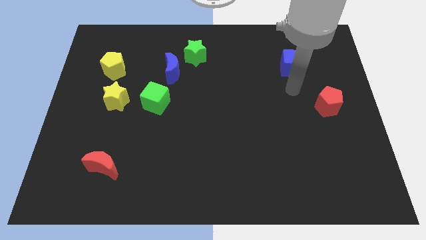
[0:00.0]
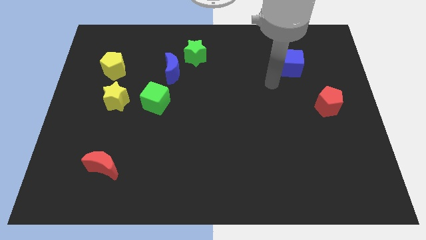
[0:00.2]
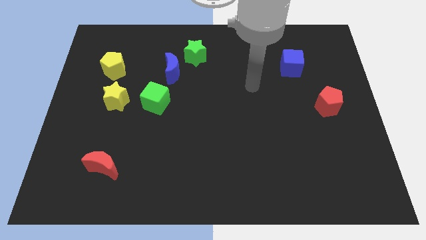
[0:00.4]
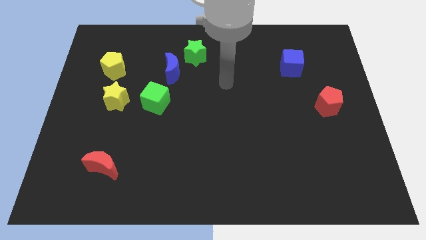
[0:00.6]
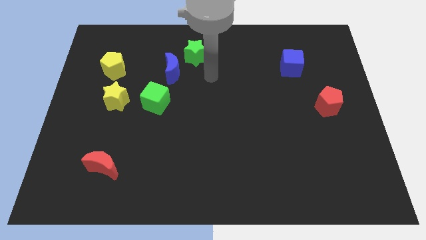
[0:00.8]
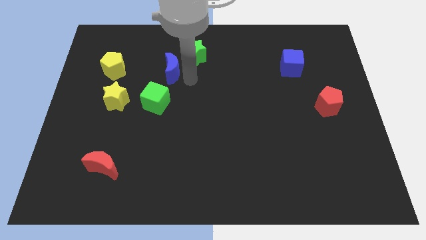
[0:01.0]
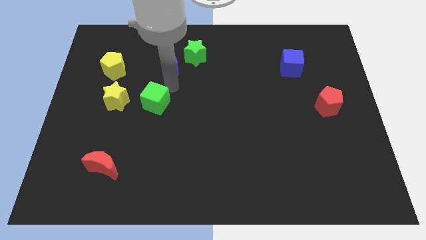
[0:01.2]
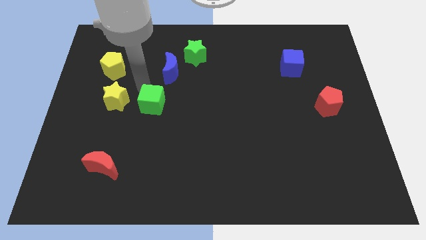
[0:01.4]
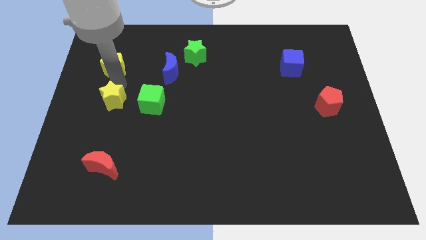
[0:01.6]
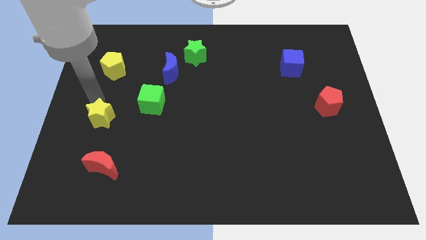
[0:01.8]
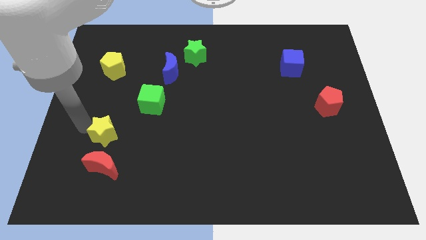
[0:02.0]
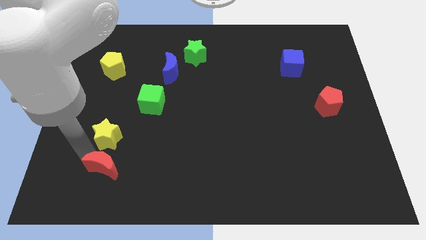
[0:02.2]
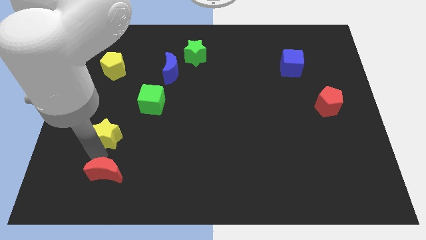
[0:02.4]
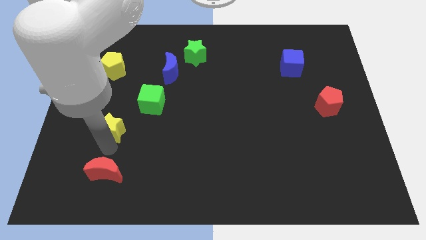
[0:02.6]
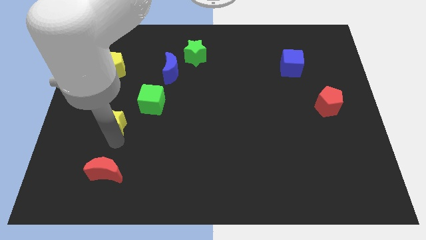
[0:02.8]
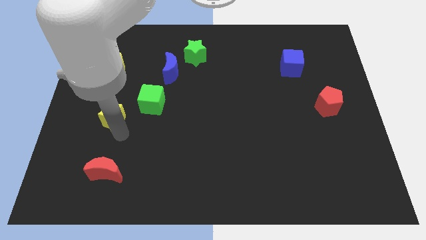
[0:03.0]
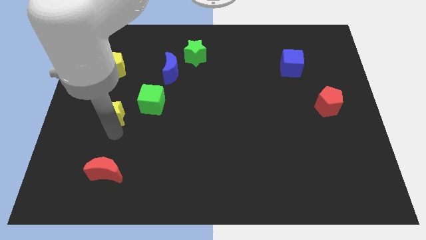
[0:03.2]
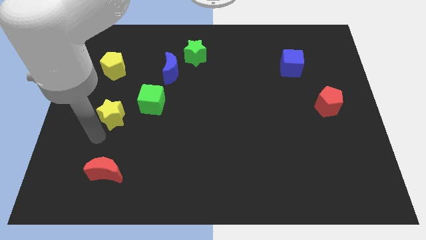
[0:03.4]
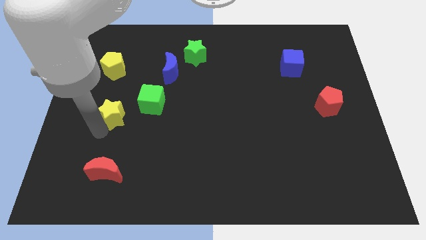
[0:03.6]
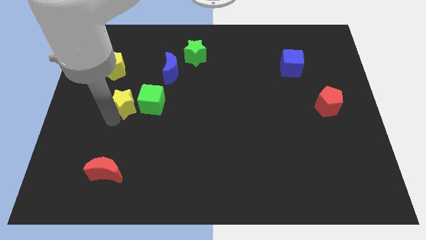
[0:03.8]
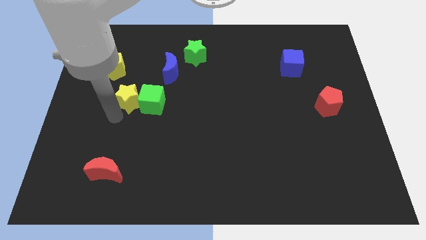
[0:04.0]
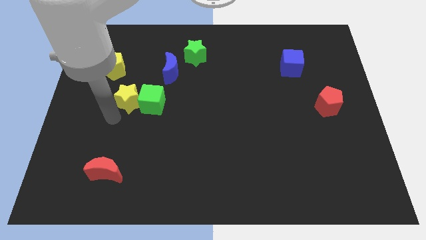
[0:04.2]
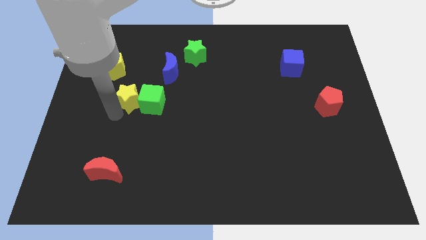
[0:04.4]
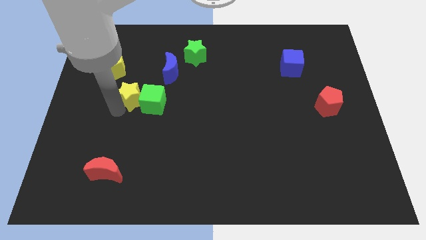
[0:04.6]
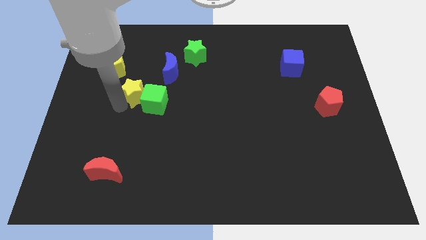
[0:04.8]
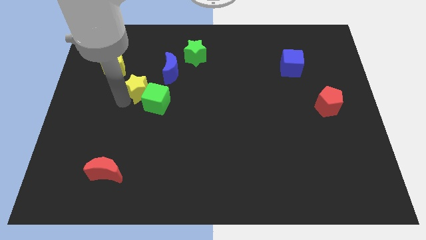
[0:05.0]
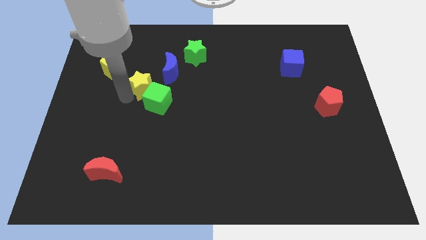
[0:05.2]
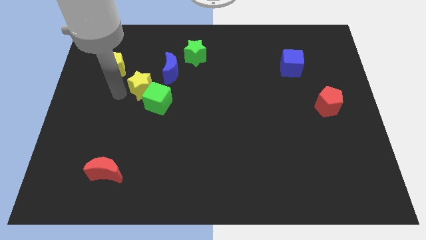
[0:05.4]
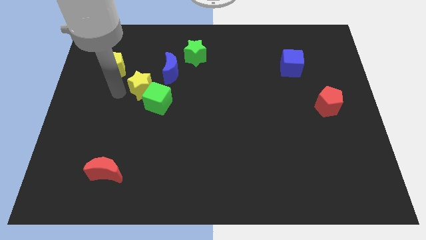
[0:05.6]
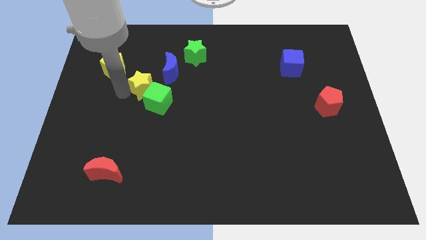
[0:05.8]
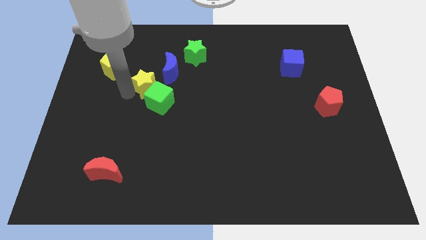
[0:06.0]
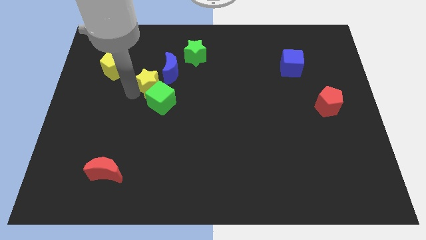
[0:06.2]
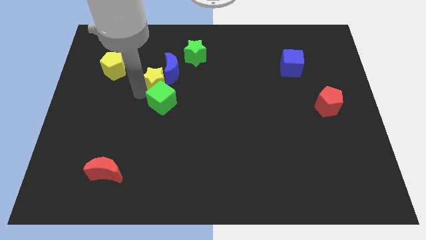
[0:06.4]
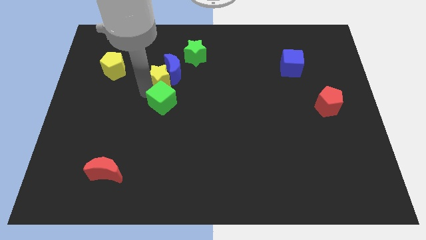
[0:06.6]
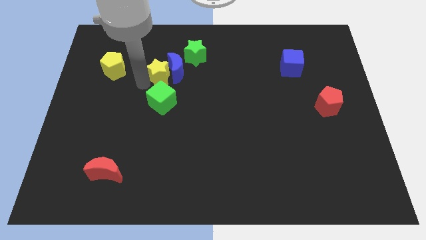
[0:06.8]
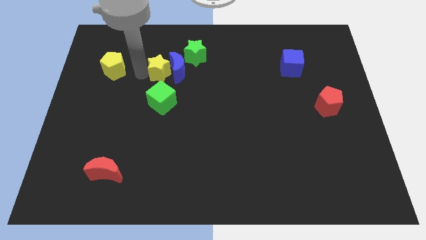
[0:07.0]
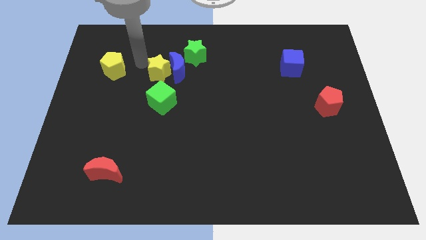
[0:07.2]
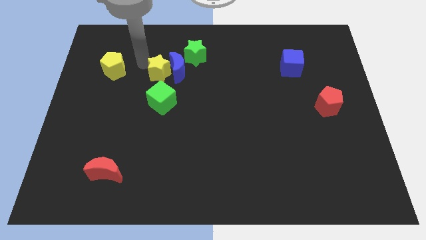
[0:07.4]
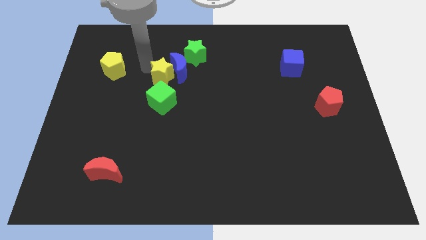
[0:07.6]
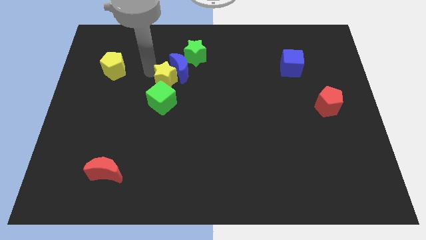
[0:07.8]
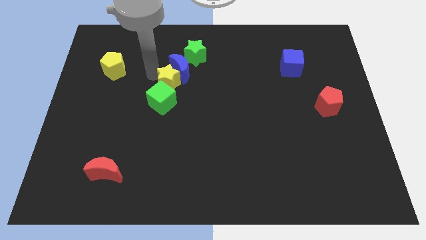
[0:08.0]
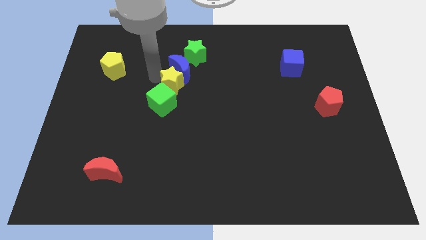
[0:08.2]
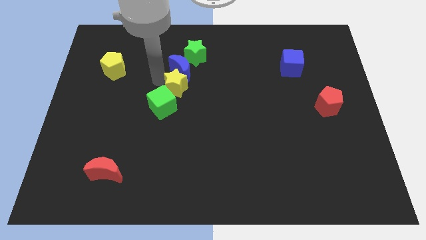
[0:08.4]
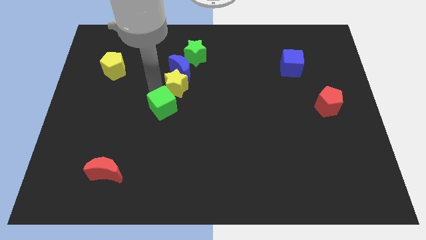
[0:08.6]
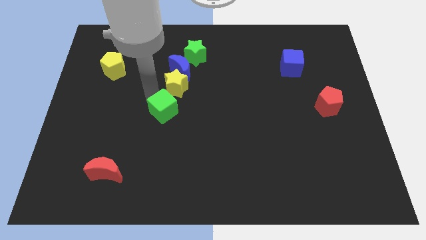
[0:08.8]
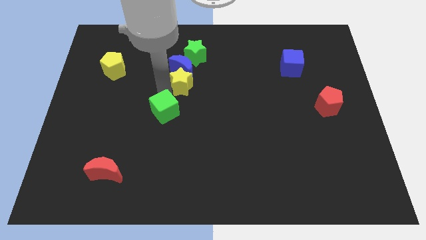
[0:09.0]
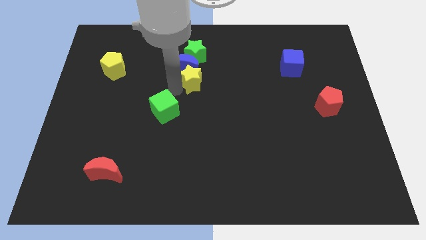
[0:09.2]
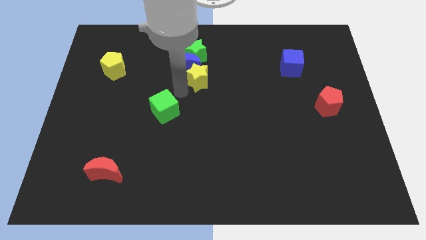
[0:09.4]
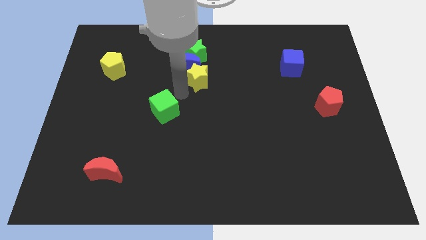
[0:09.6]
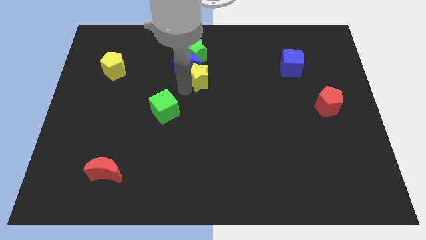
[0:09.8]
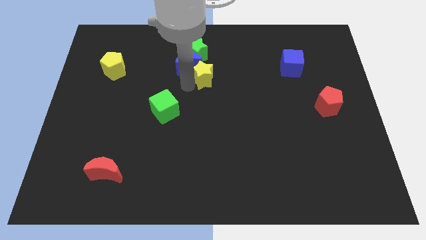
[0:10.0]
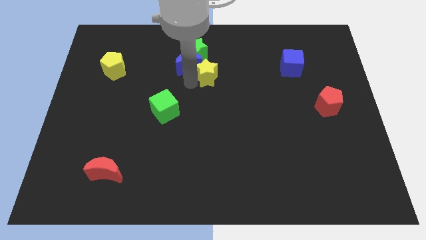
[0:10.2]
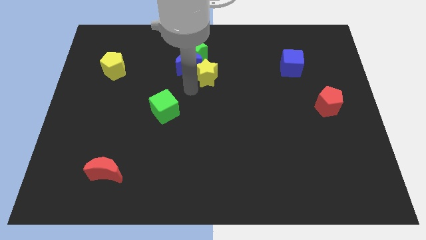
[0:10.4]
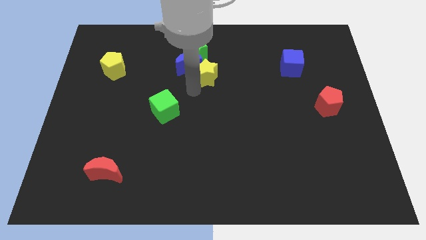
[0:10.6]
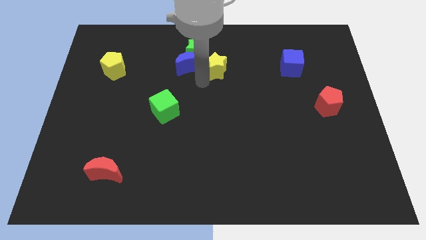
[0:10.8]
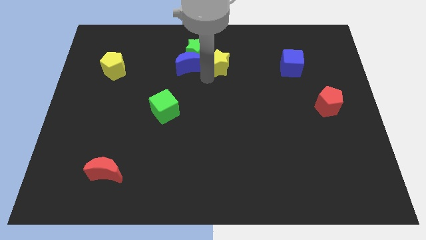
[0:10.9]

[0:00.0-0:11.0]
move the yellow star just right of the green star

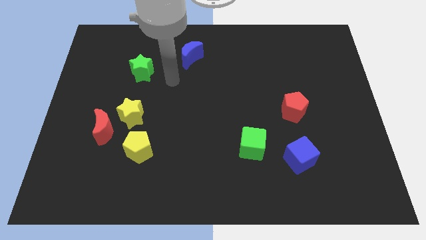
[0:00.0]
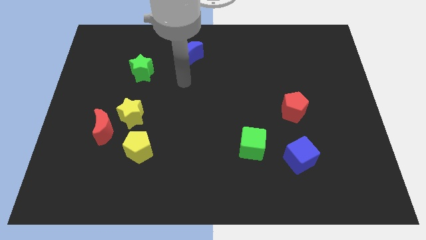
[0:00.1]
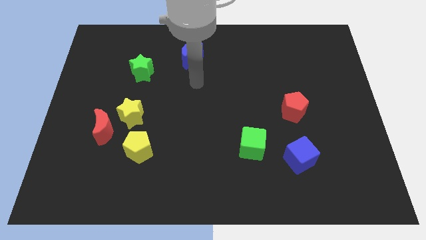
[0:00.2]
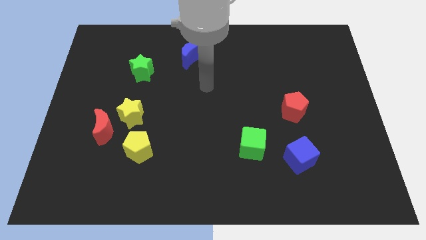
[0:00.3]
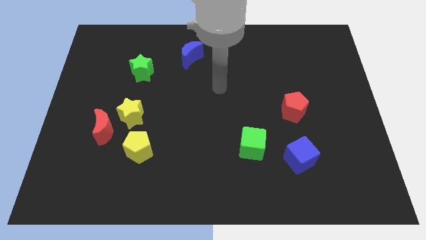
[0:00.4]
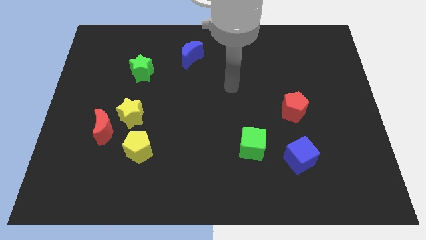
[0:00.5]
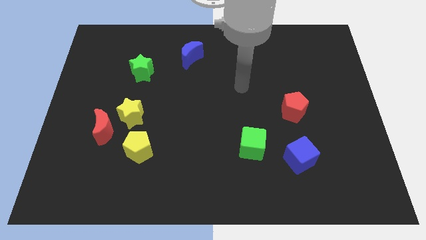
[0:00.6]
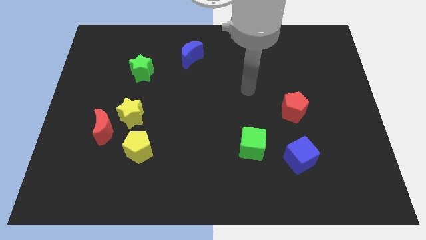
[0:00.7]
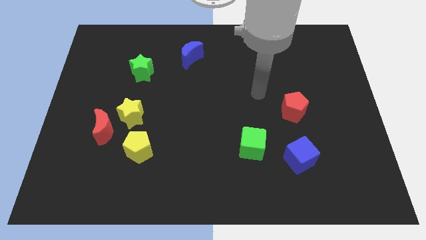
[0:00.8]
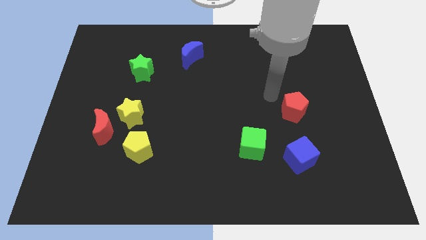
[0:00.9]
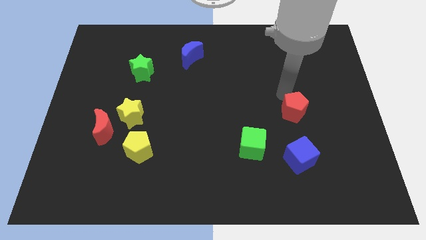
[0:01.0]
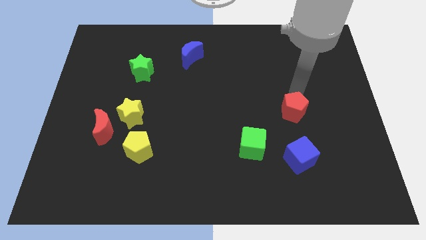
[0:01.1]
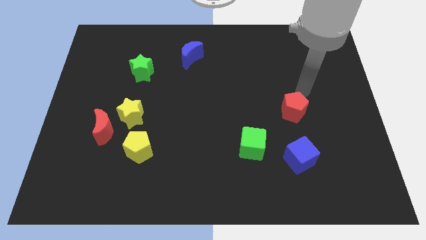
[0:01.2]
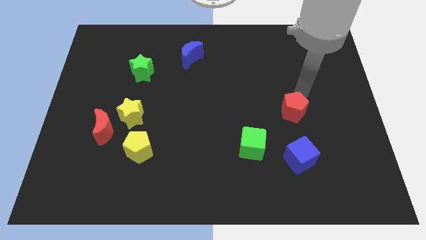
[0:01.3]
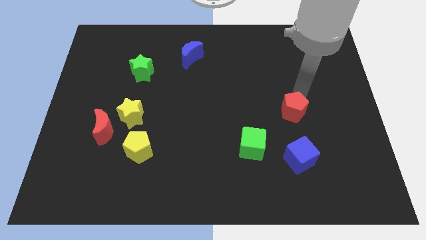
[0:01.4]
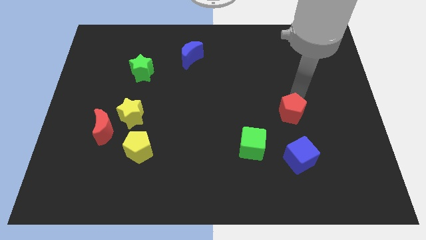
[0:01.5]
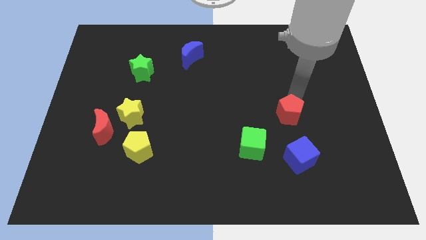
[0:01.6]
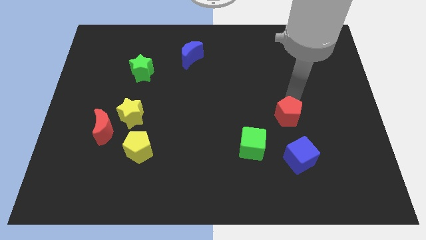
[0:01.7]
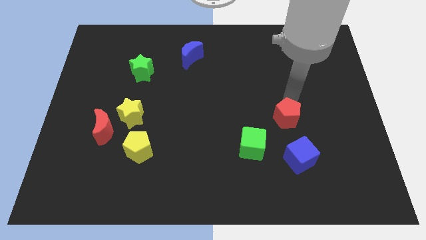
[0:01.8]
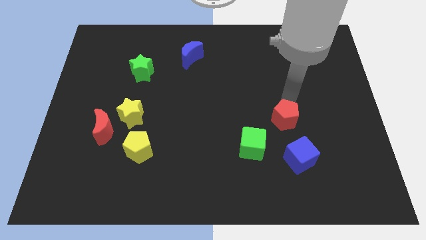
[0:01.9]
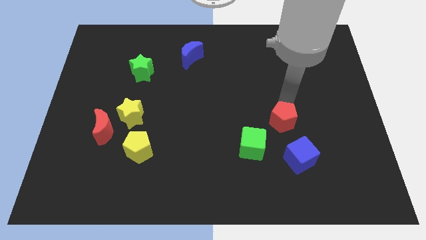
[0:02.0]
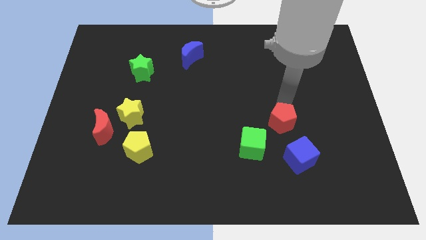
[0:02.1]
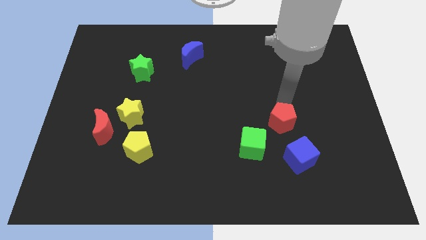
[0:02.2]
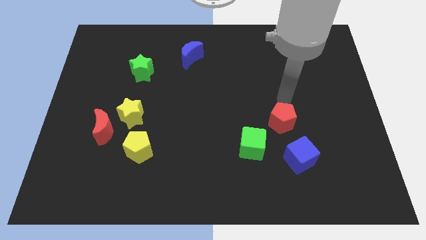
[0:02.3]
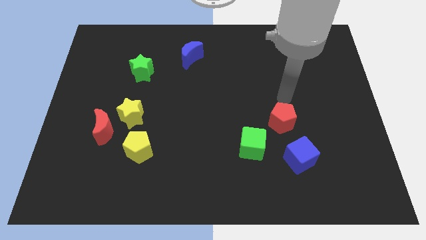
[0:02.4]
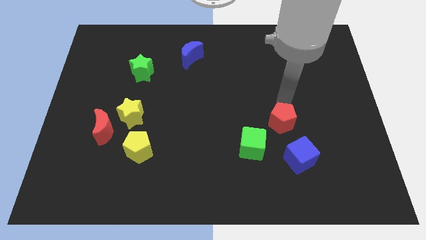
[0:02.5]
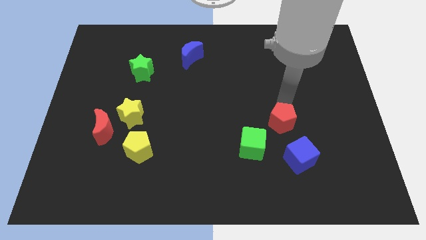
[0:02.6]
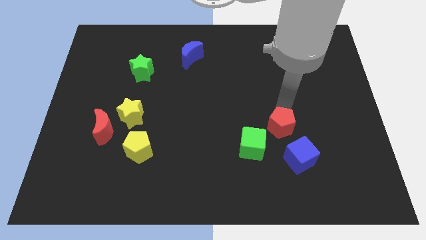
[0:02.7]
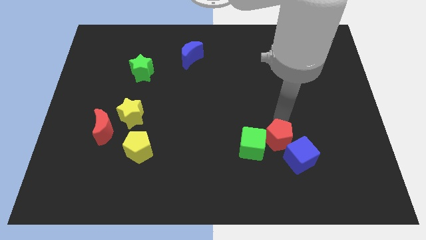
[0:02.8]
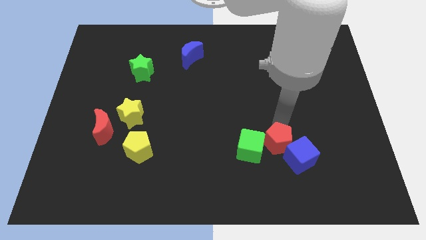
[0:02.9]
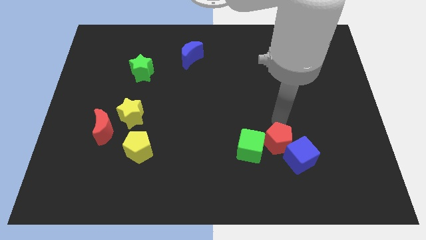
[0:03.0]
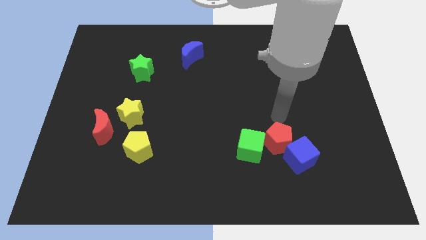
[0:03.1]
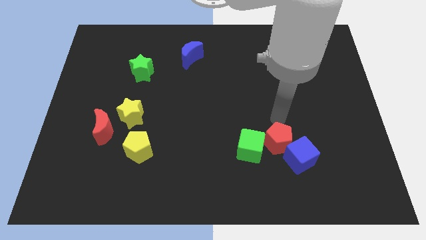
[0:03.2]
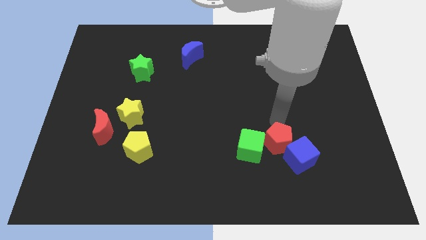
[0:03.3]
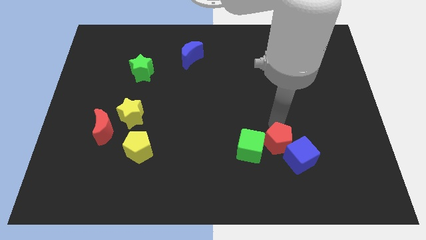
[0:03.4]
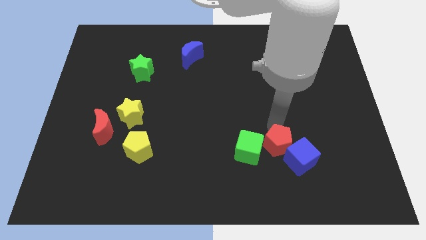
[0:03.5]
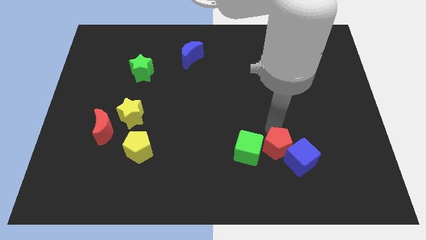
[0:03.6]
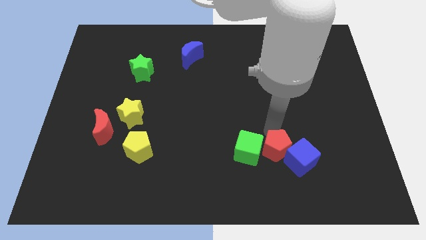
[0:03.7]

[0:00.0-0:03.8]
push the red pentagon diagonally down and to the right of the green cube
